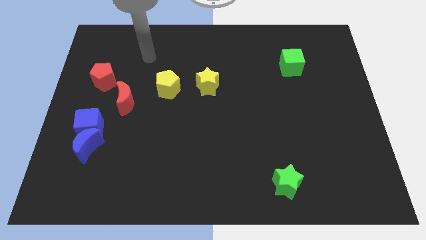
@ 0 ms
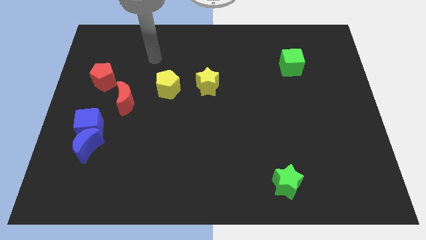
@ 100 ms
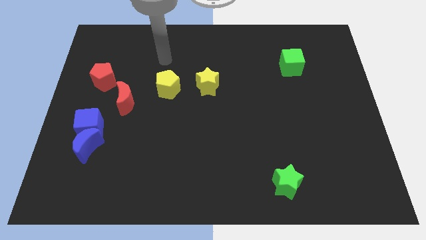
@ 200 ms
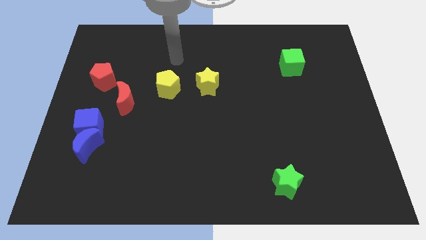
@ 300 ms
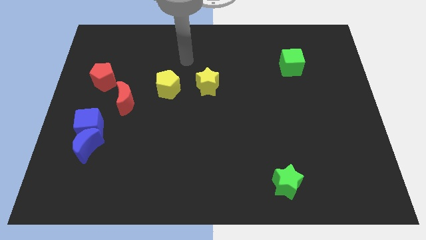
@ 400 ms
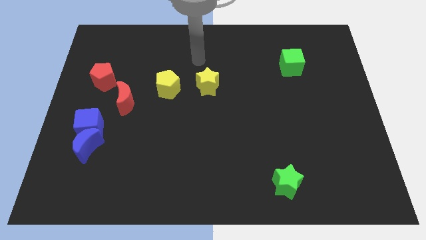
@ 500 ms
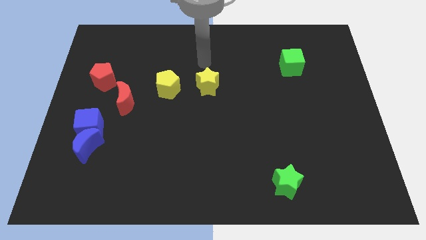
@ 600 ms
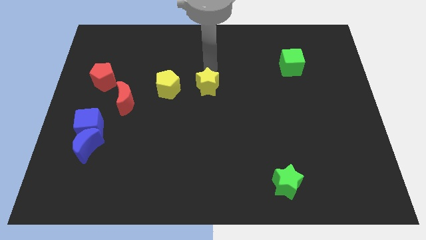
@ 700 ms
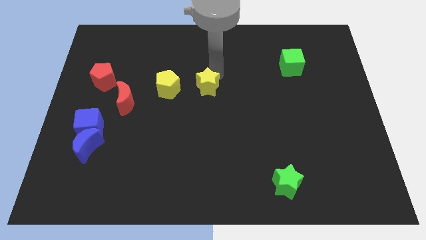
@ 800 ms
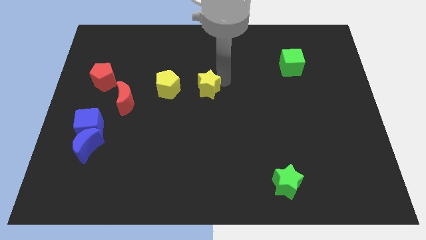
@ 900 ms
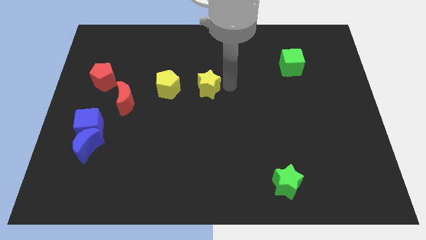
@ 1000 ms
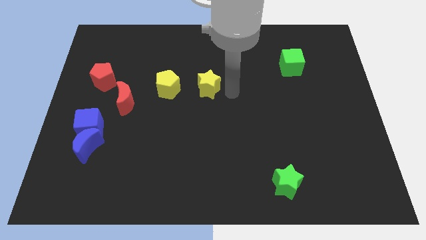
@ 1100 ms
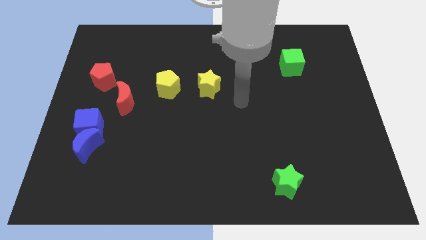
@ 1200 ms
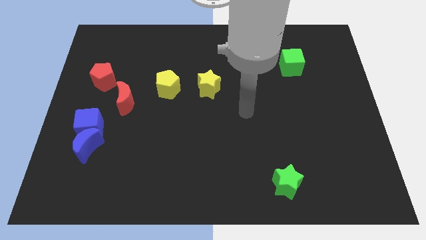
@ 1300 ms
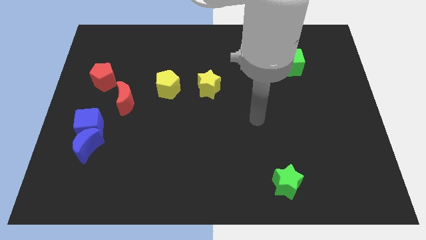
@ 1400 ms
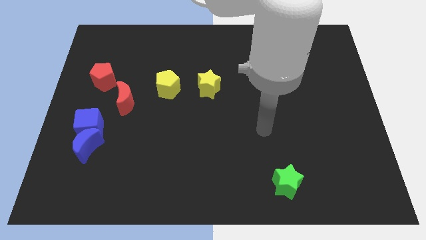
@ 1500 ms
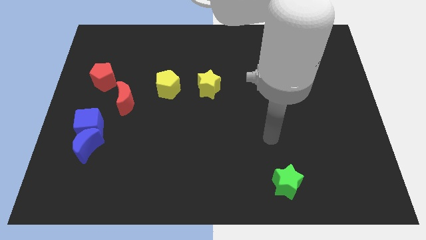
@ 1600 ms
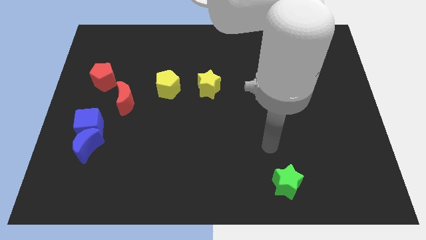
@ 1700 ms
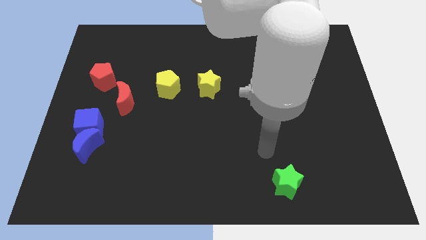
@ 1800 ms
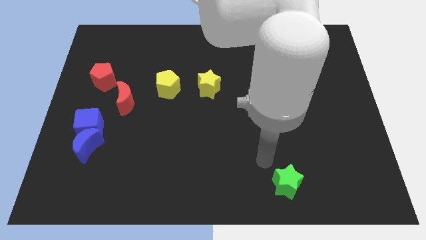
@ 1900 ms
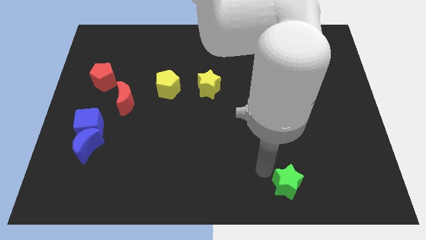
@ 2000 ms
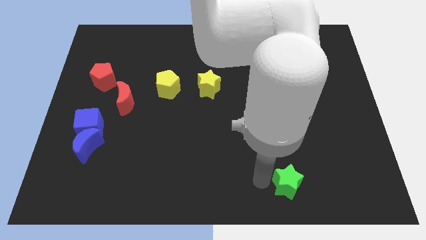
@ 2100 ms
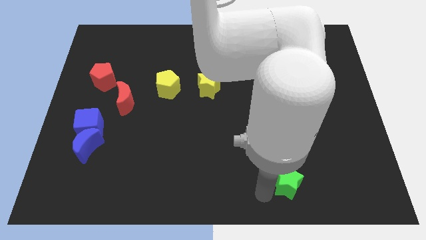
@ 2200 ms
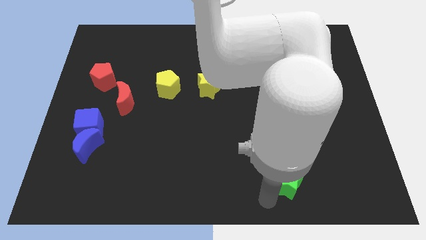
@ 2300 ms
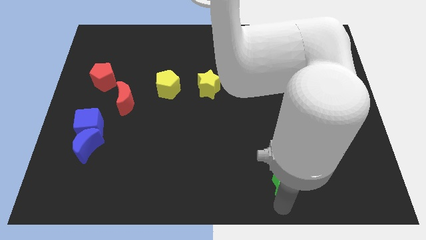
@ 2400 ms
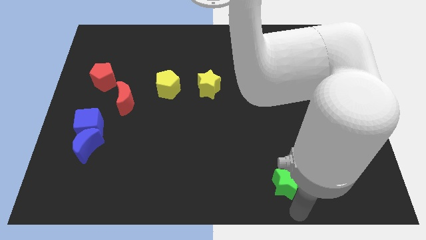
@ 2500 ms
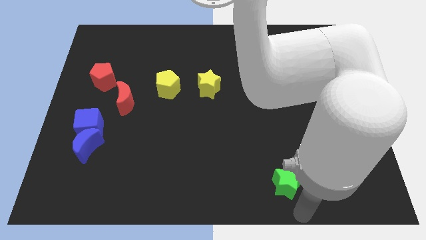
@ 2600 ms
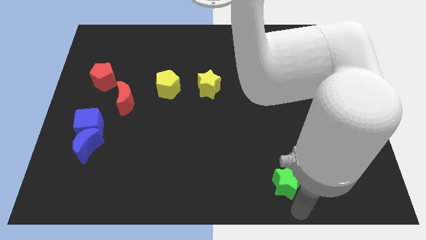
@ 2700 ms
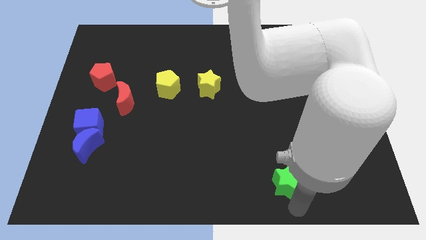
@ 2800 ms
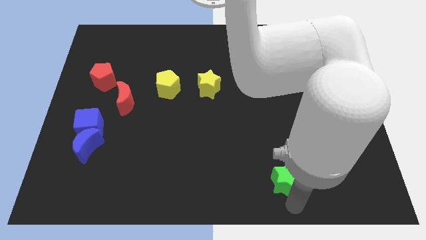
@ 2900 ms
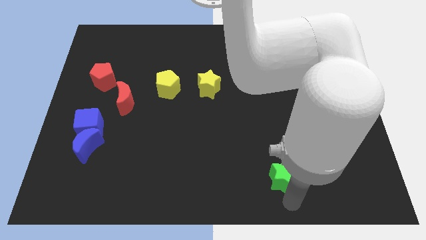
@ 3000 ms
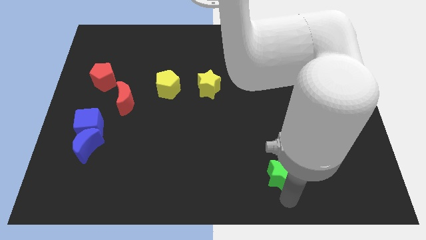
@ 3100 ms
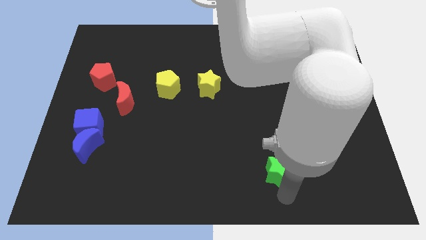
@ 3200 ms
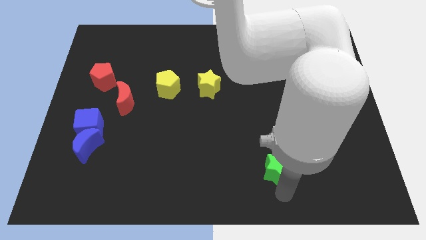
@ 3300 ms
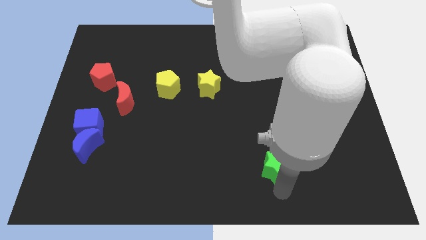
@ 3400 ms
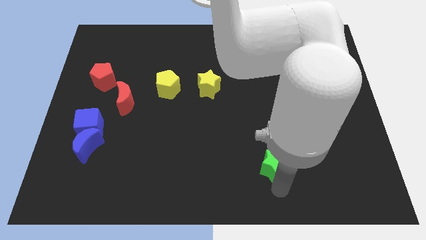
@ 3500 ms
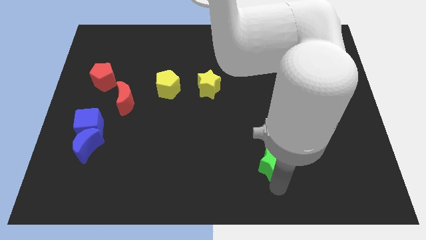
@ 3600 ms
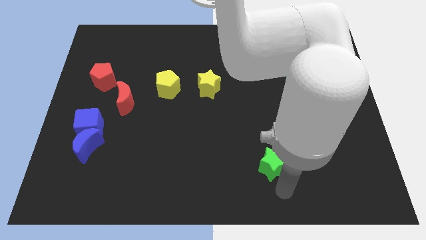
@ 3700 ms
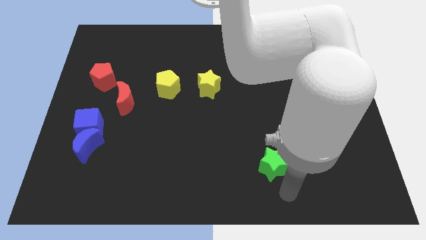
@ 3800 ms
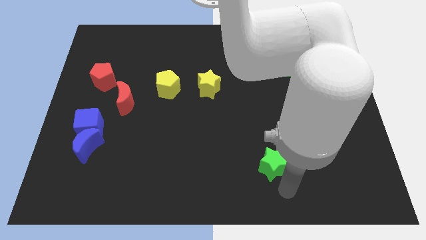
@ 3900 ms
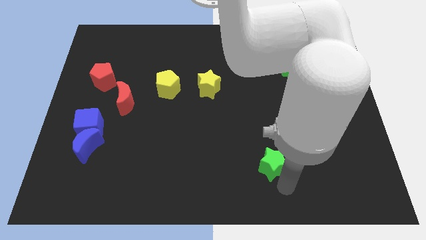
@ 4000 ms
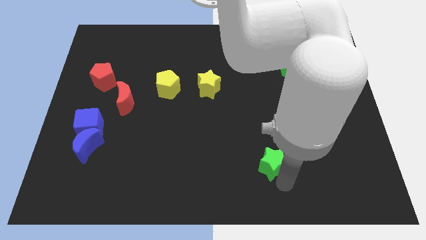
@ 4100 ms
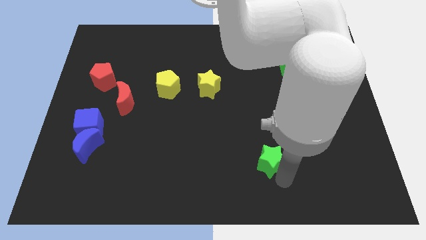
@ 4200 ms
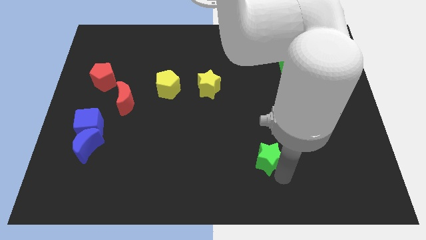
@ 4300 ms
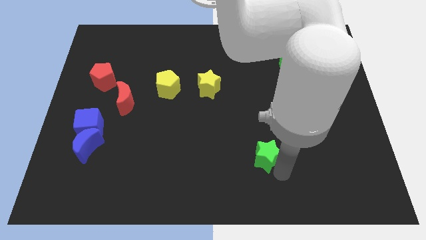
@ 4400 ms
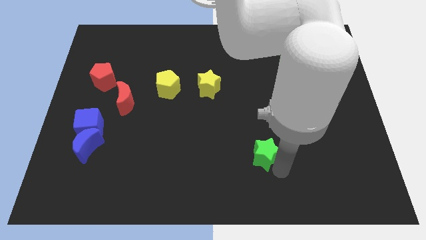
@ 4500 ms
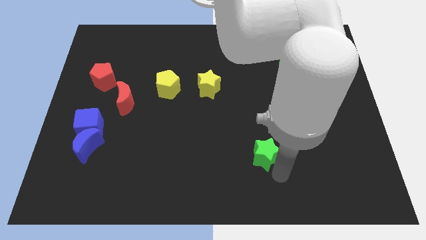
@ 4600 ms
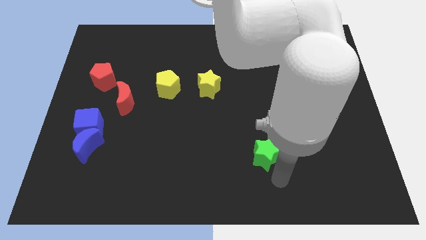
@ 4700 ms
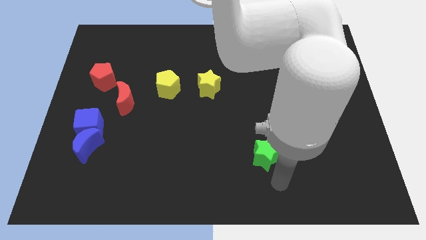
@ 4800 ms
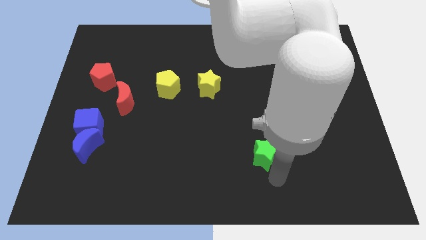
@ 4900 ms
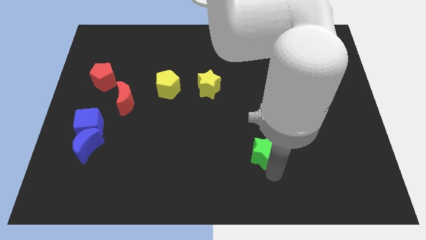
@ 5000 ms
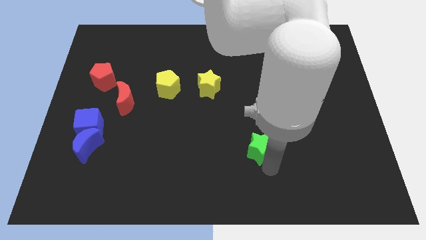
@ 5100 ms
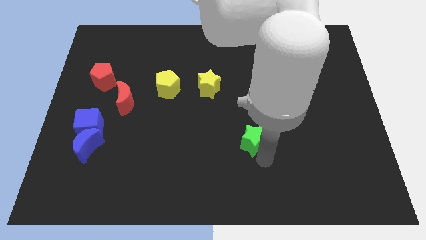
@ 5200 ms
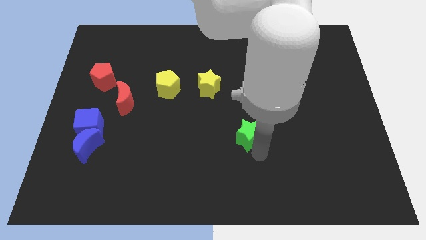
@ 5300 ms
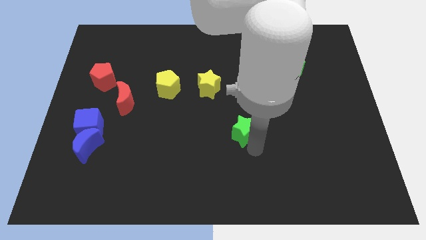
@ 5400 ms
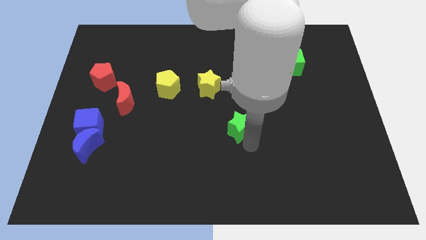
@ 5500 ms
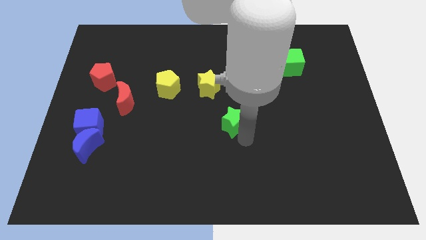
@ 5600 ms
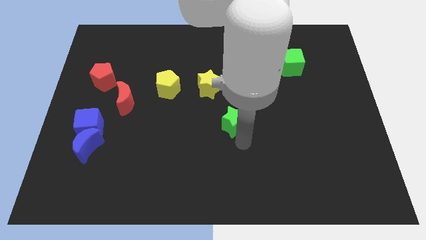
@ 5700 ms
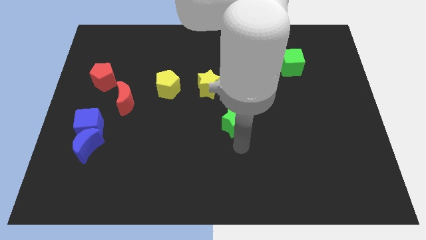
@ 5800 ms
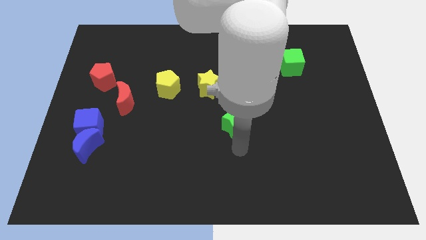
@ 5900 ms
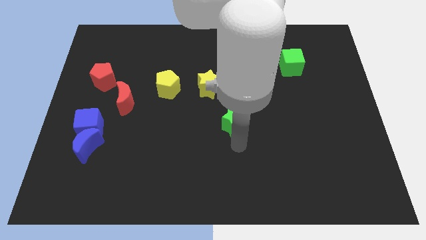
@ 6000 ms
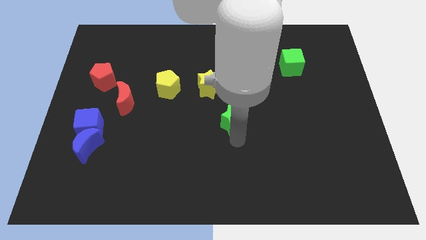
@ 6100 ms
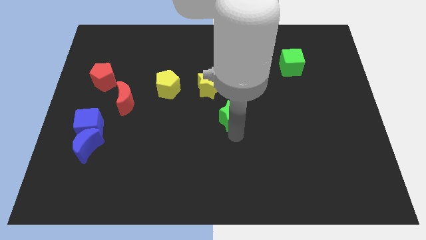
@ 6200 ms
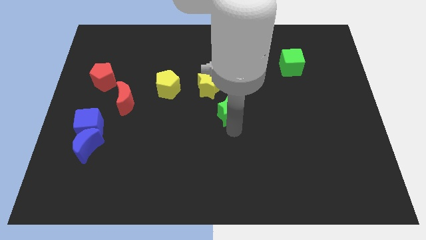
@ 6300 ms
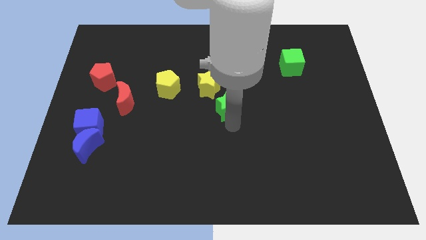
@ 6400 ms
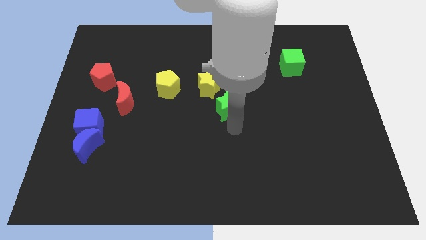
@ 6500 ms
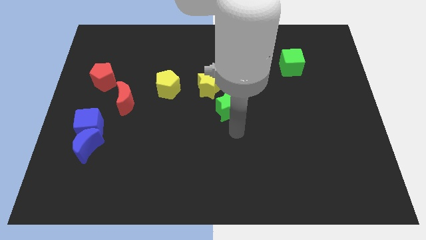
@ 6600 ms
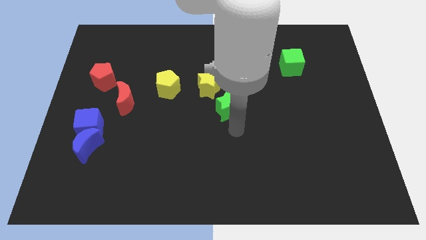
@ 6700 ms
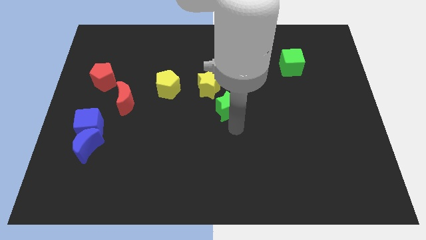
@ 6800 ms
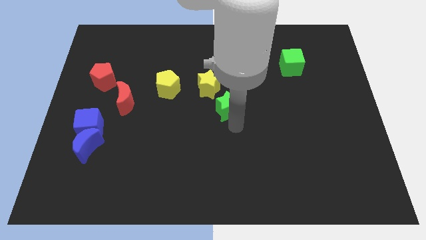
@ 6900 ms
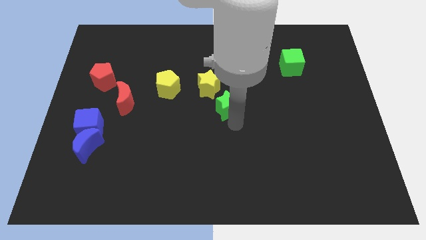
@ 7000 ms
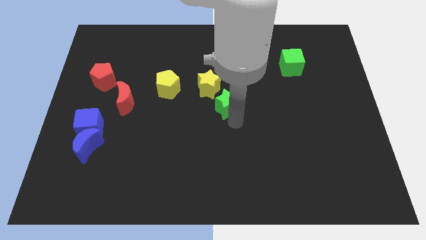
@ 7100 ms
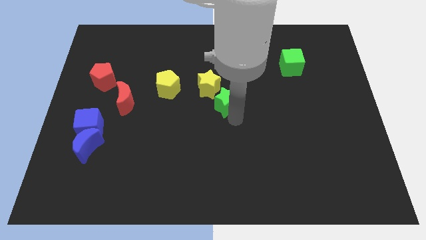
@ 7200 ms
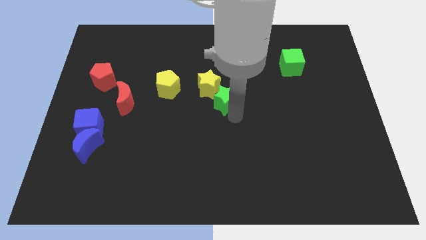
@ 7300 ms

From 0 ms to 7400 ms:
push the green star close to the yellow star
